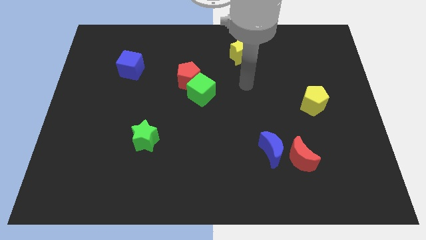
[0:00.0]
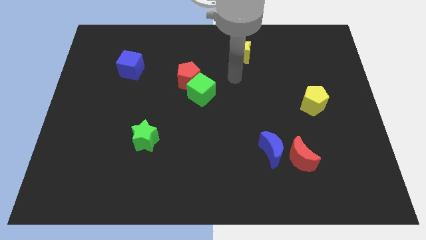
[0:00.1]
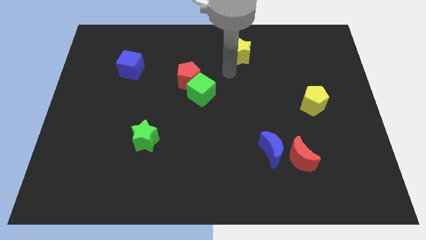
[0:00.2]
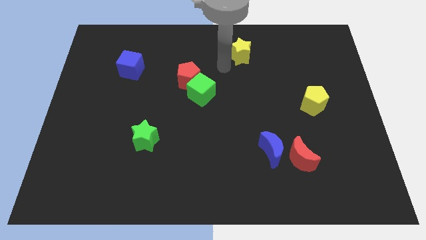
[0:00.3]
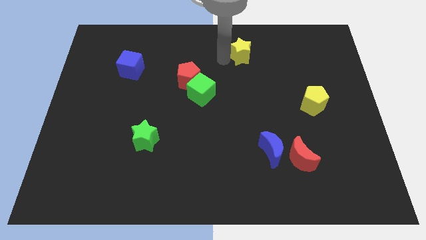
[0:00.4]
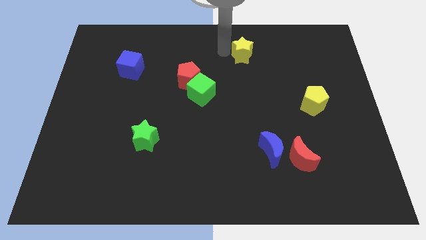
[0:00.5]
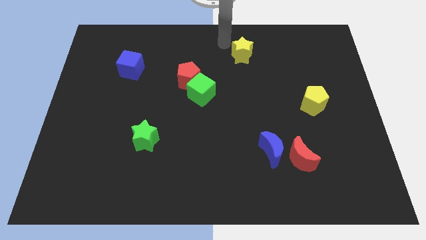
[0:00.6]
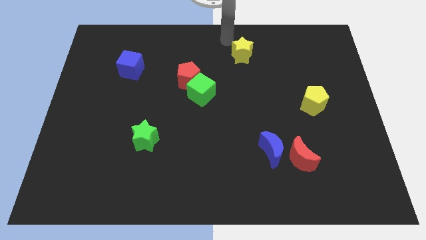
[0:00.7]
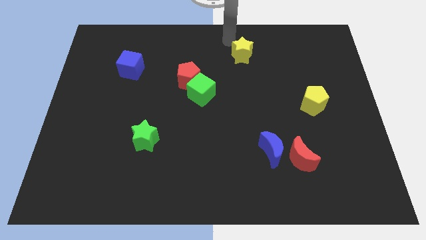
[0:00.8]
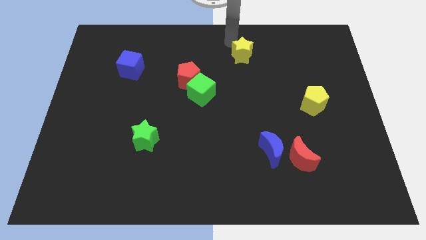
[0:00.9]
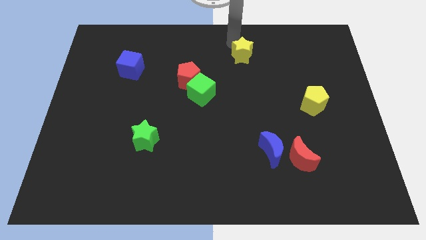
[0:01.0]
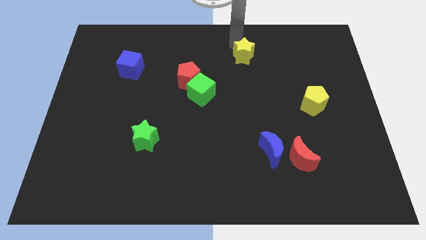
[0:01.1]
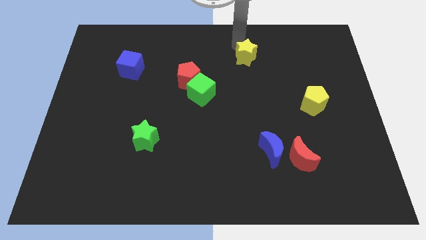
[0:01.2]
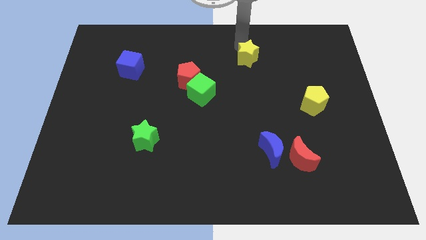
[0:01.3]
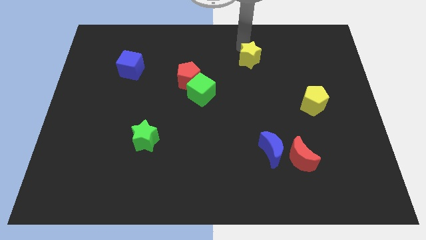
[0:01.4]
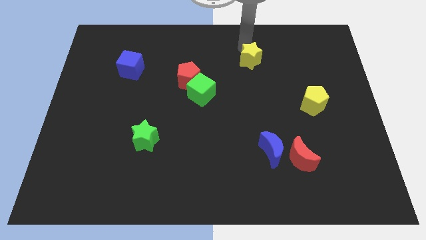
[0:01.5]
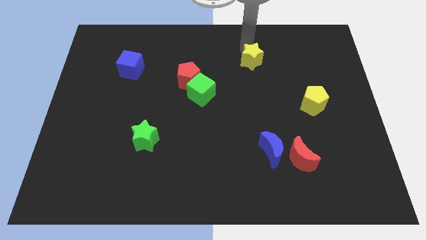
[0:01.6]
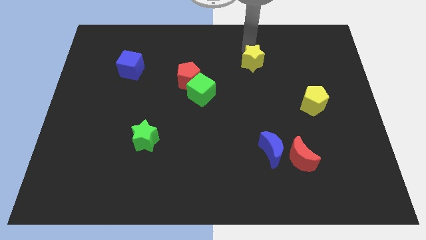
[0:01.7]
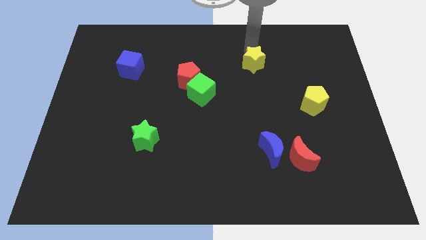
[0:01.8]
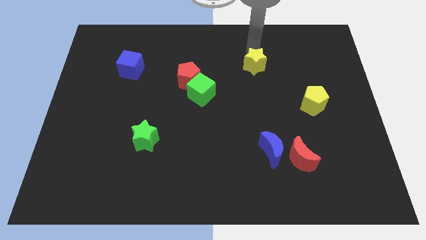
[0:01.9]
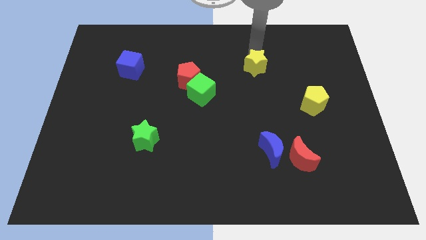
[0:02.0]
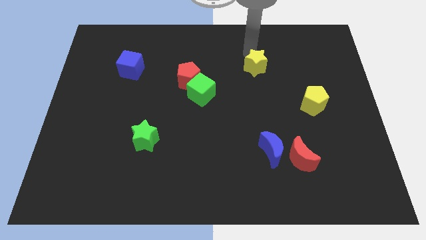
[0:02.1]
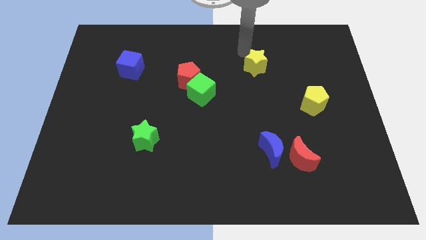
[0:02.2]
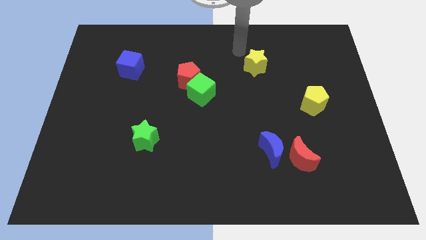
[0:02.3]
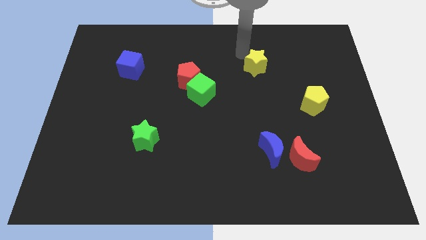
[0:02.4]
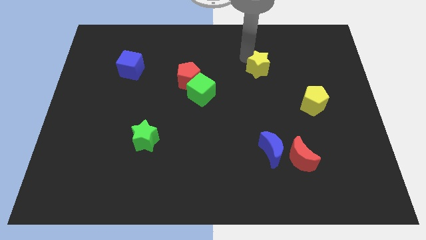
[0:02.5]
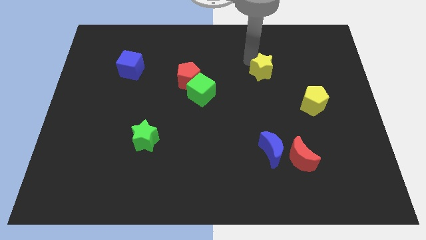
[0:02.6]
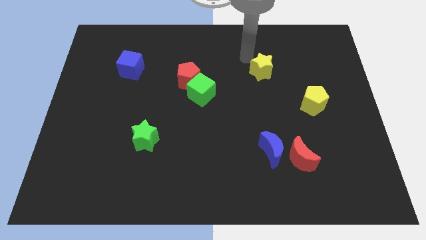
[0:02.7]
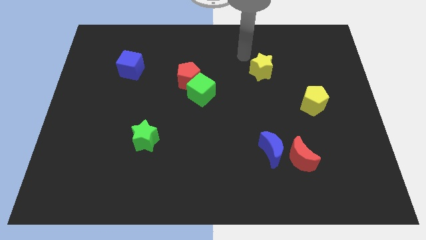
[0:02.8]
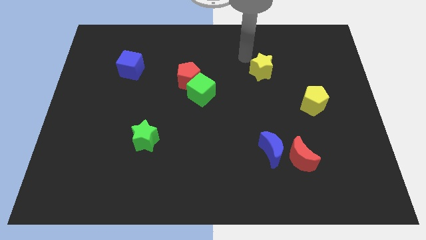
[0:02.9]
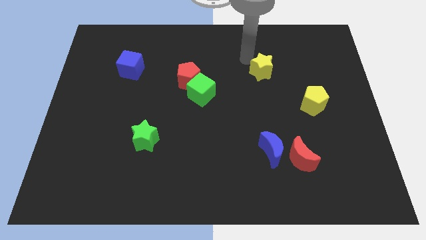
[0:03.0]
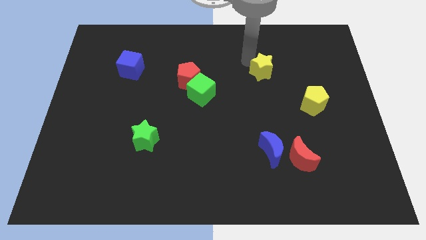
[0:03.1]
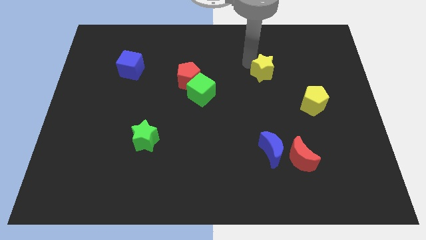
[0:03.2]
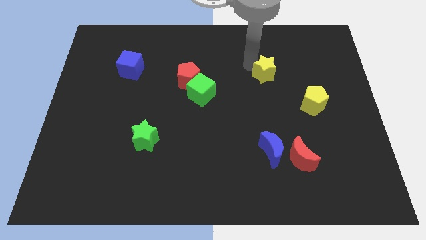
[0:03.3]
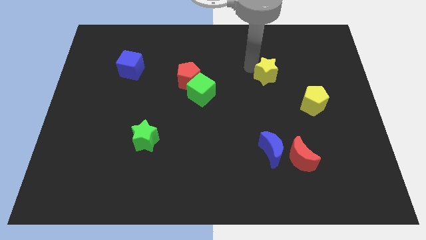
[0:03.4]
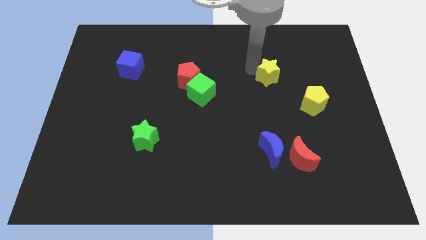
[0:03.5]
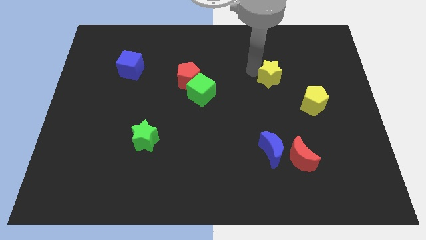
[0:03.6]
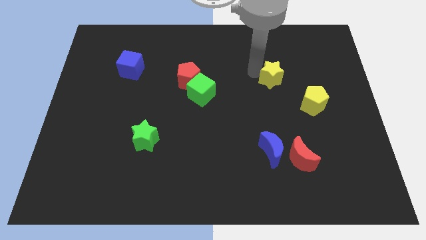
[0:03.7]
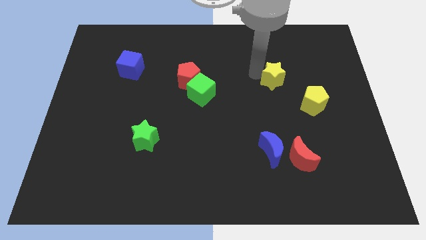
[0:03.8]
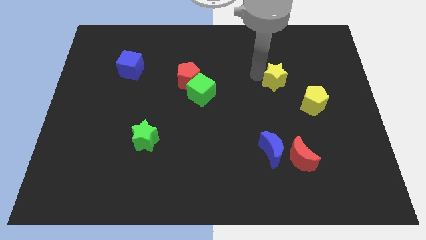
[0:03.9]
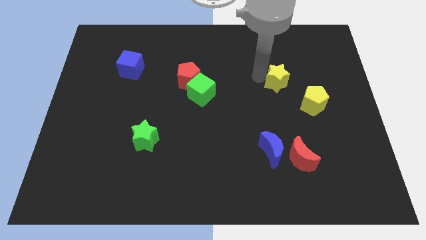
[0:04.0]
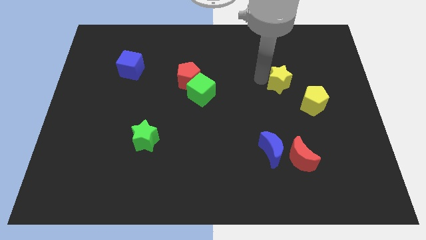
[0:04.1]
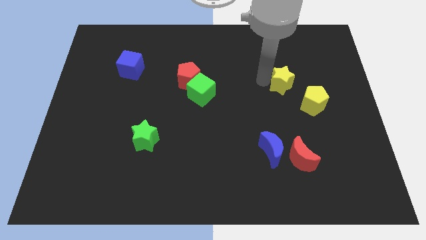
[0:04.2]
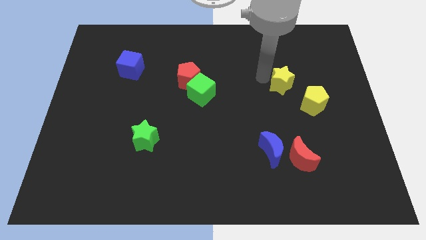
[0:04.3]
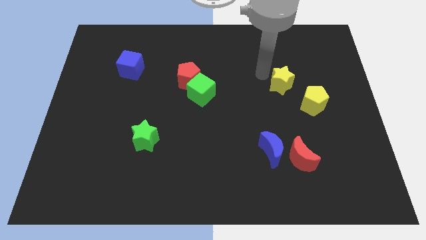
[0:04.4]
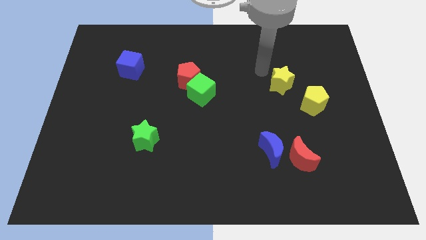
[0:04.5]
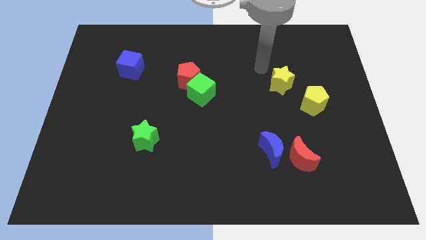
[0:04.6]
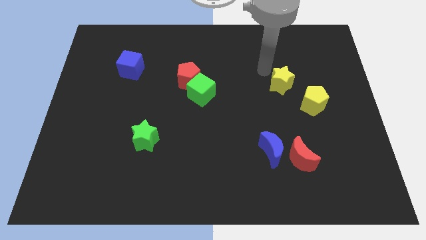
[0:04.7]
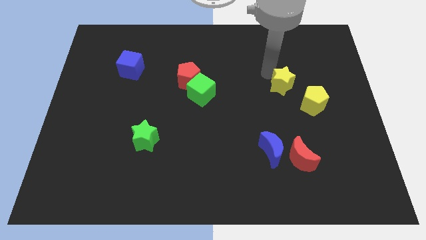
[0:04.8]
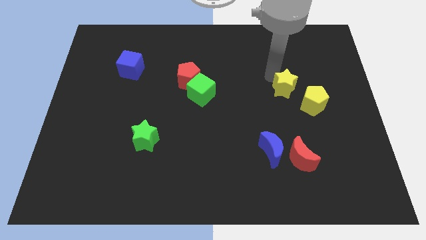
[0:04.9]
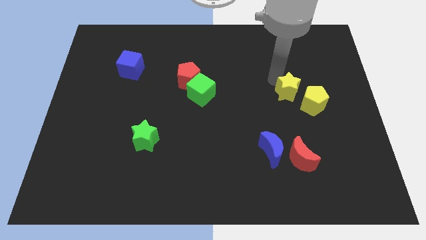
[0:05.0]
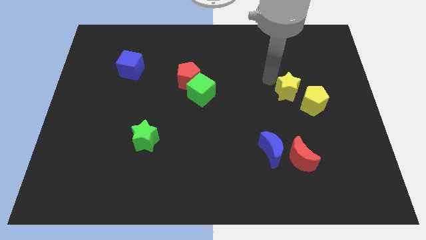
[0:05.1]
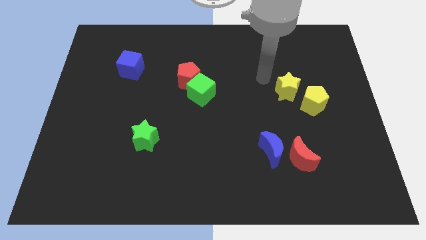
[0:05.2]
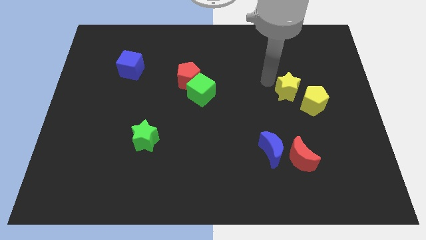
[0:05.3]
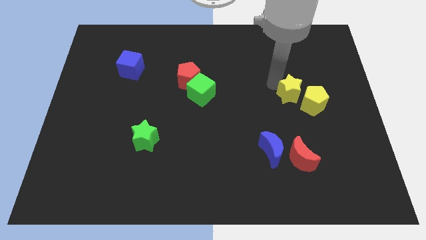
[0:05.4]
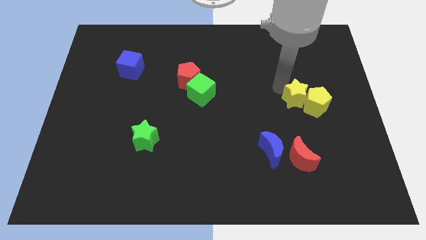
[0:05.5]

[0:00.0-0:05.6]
move the yellow star towards the yellow pentagon

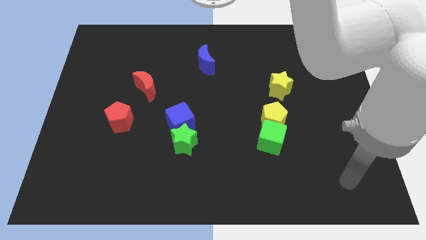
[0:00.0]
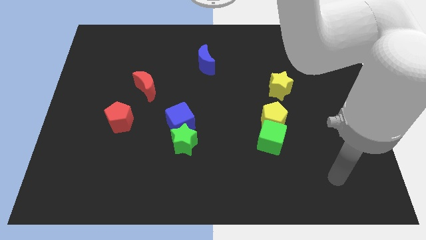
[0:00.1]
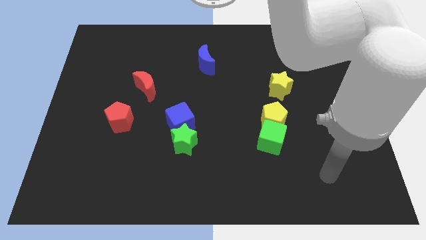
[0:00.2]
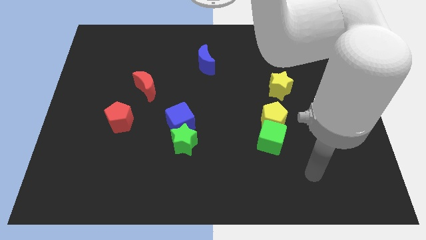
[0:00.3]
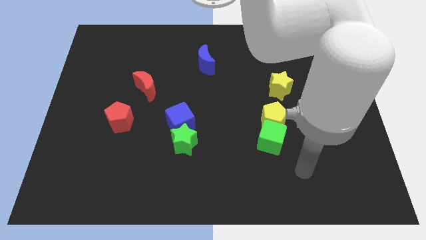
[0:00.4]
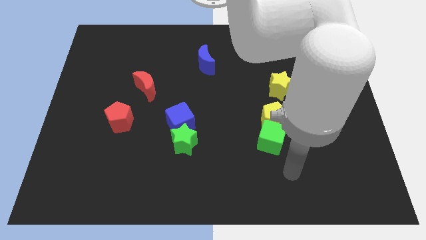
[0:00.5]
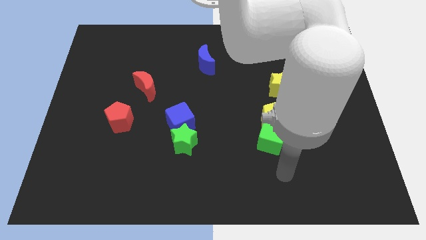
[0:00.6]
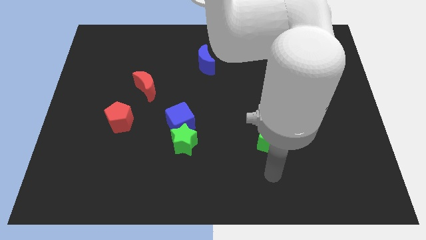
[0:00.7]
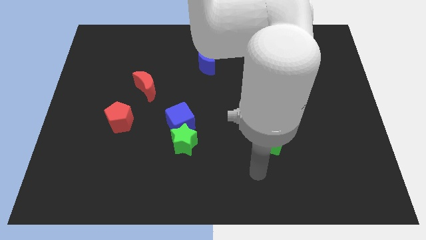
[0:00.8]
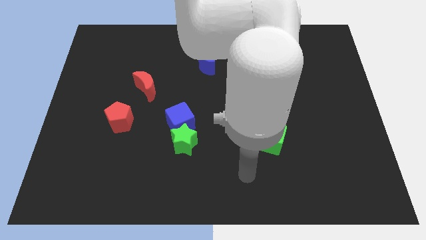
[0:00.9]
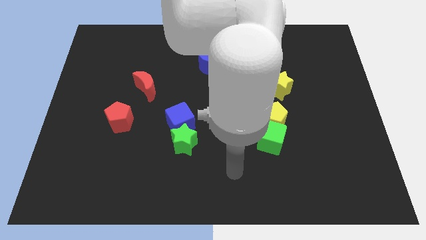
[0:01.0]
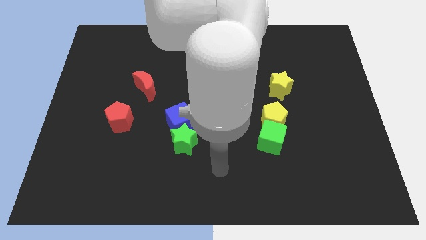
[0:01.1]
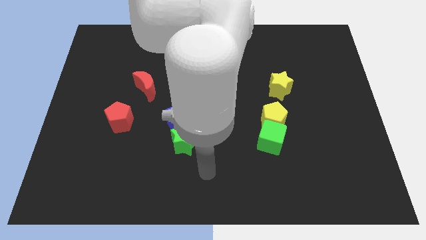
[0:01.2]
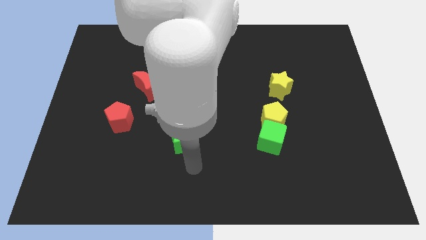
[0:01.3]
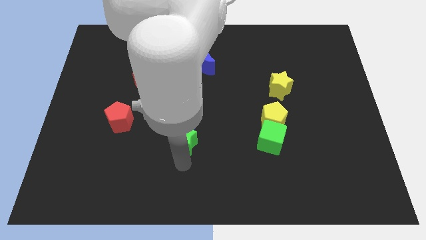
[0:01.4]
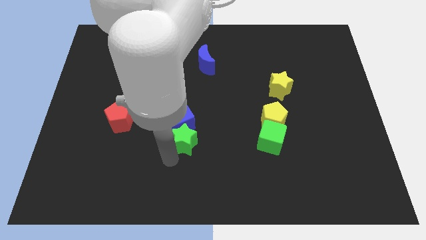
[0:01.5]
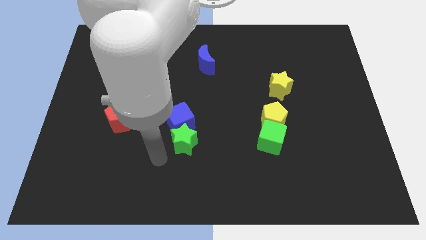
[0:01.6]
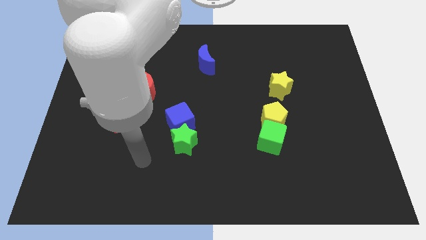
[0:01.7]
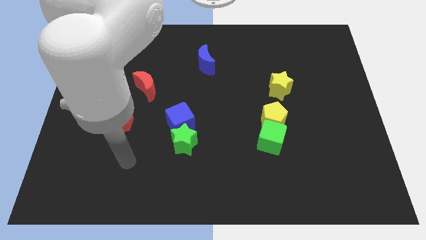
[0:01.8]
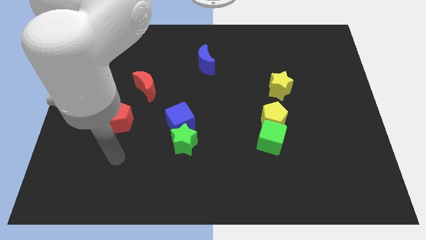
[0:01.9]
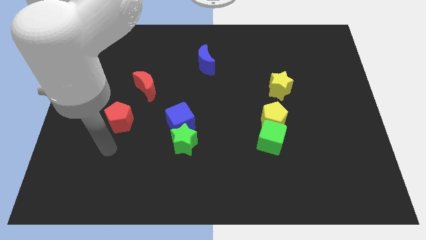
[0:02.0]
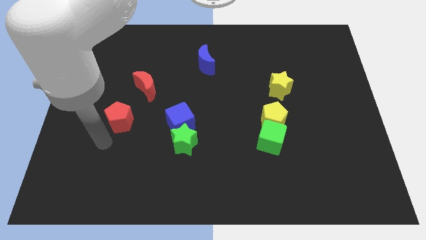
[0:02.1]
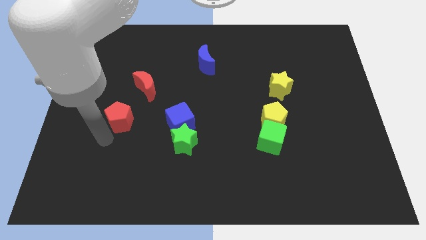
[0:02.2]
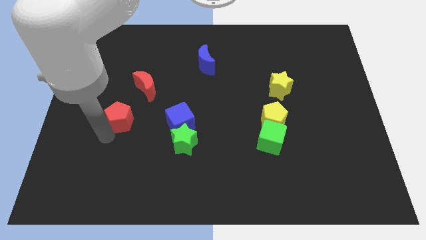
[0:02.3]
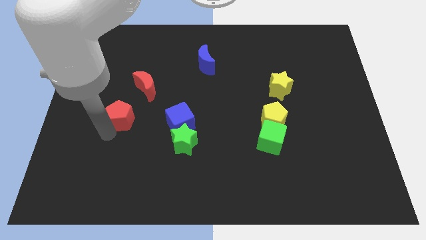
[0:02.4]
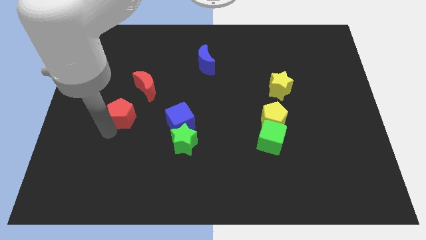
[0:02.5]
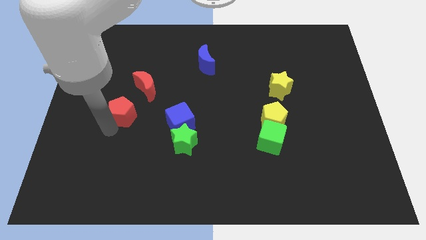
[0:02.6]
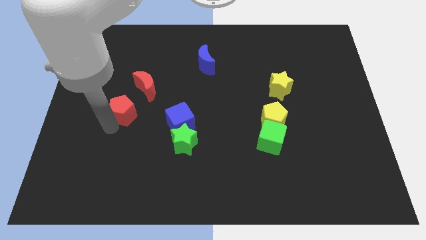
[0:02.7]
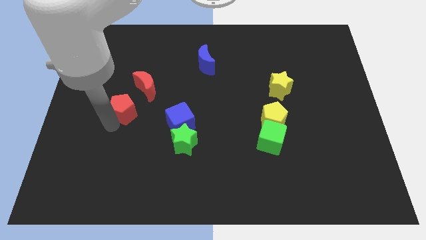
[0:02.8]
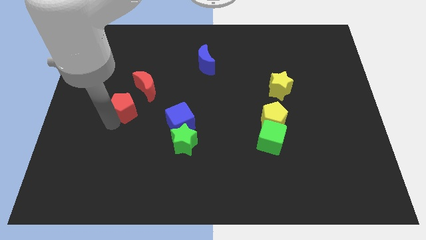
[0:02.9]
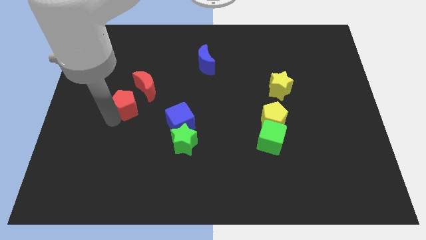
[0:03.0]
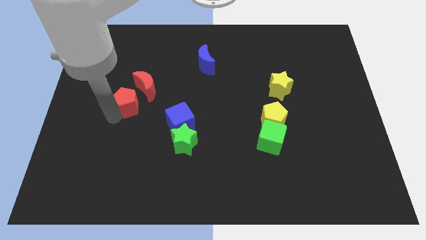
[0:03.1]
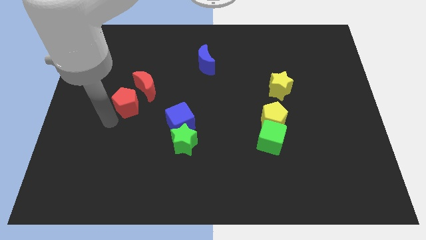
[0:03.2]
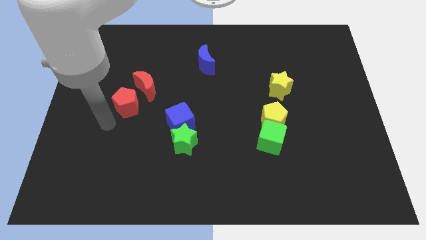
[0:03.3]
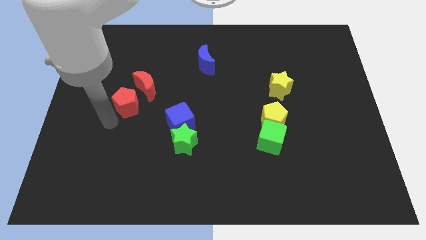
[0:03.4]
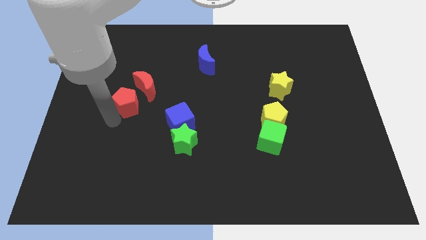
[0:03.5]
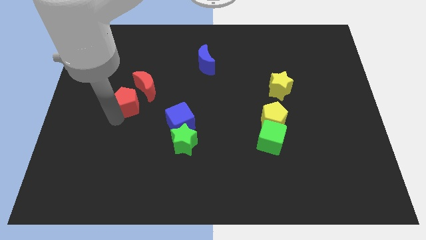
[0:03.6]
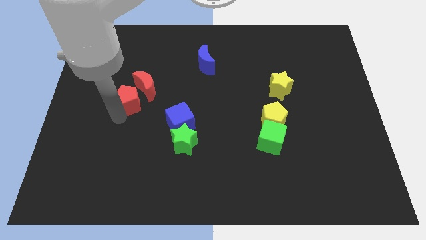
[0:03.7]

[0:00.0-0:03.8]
put the red pentagon to the red moon
